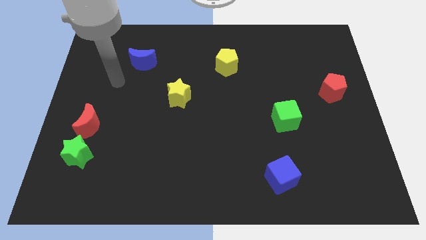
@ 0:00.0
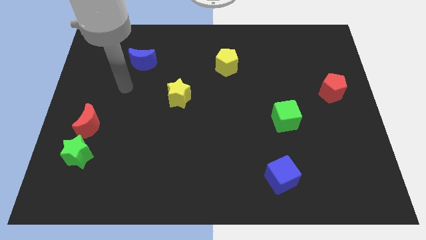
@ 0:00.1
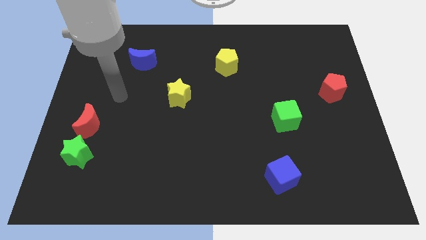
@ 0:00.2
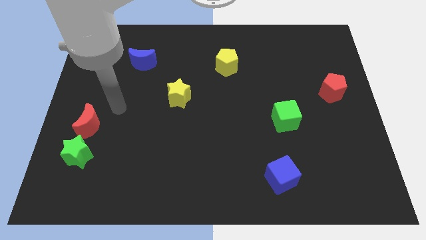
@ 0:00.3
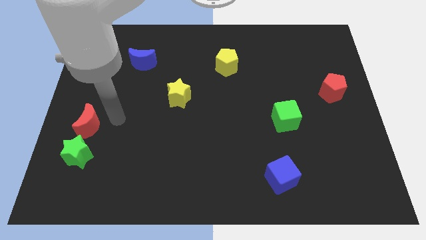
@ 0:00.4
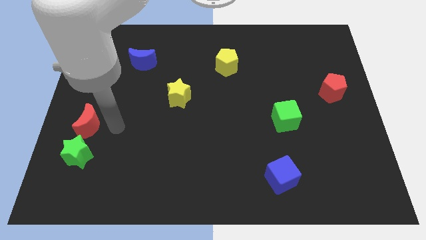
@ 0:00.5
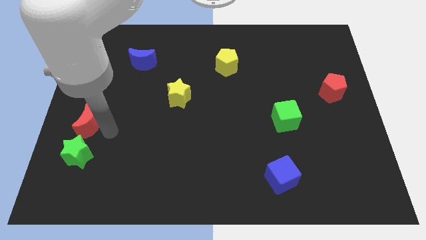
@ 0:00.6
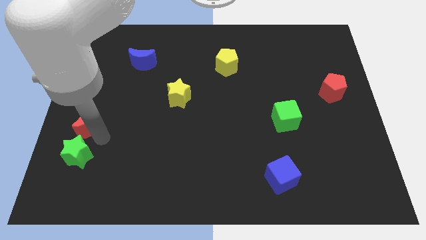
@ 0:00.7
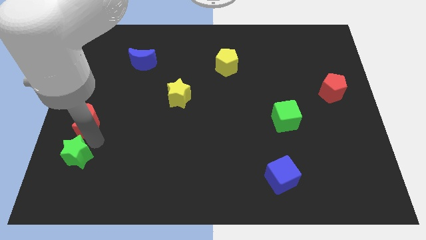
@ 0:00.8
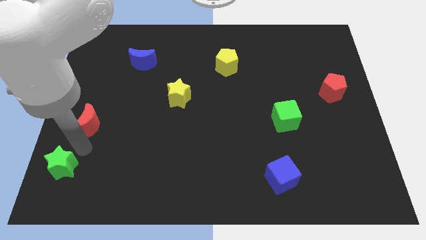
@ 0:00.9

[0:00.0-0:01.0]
separate the red moon from the green star

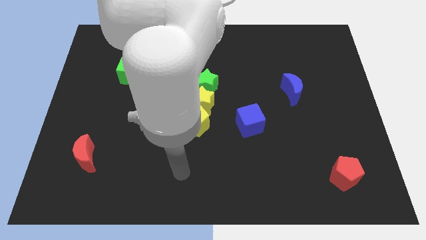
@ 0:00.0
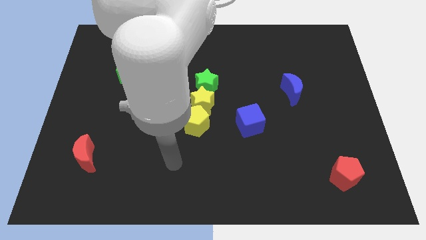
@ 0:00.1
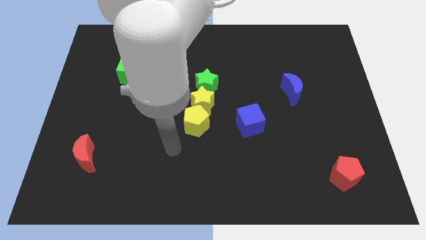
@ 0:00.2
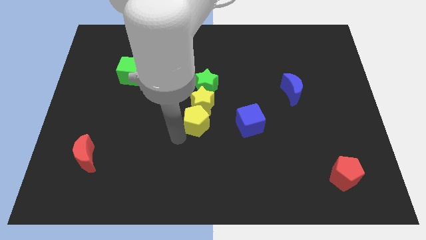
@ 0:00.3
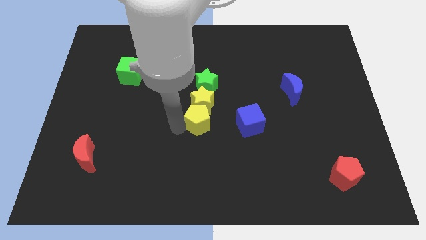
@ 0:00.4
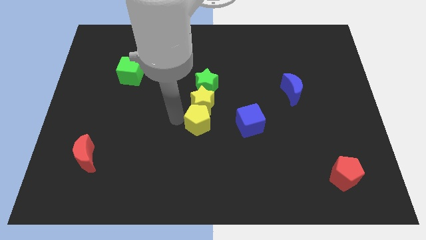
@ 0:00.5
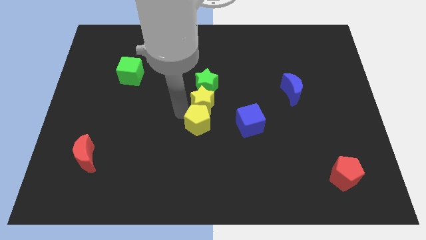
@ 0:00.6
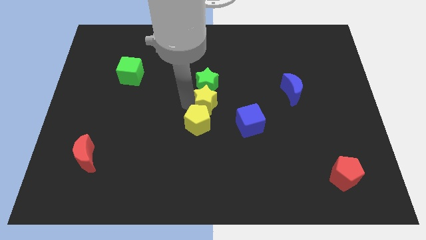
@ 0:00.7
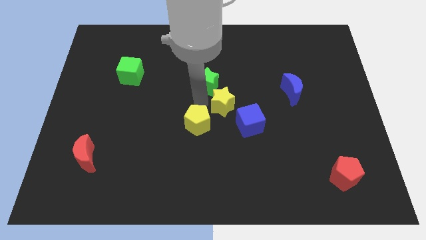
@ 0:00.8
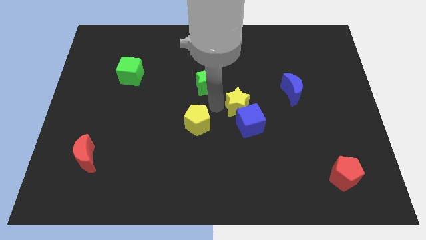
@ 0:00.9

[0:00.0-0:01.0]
separate the yellow pentagon from the yellow star

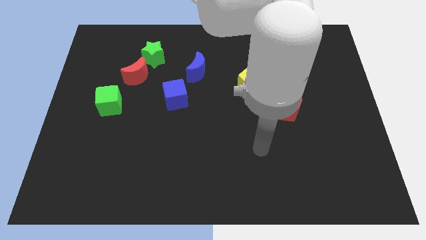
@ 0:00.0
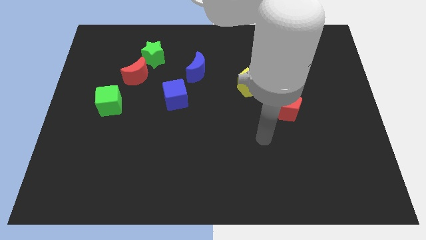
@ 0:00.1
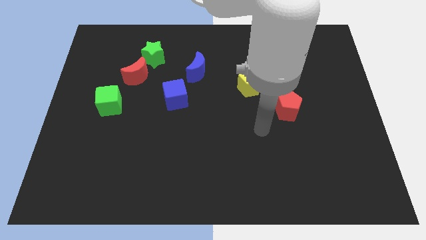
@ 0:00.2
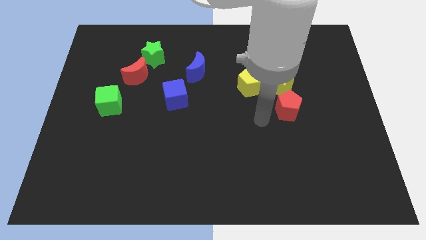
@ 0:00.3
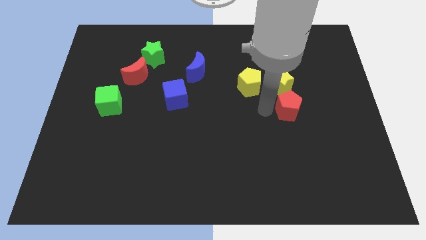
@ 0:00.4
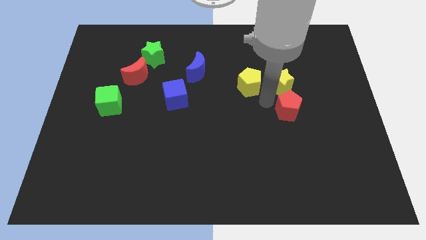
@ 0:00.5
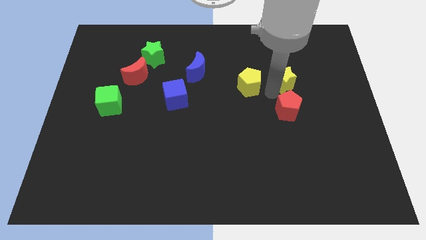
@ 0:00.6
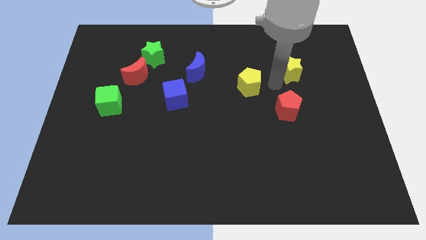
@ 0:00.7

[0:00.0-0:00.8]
move the yellow pentagon away from the yellow star

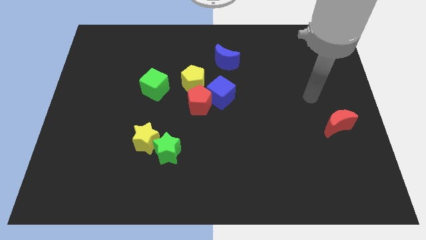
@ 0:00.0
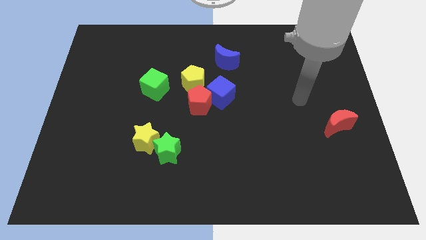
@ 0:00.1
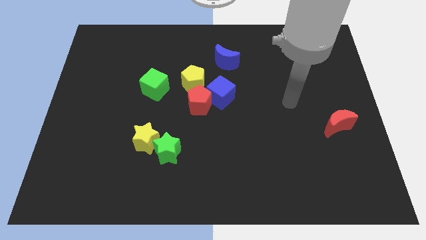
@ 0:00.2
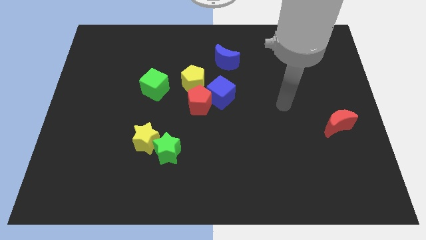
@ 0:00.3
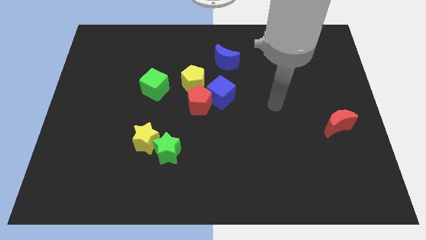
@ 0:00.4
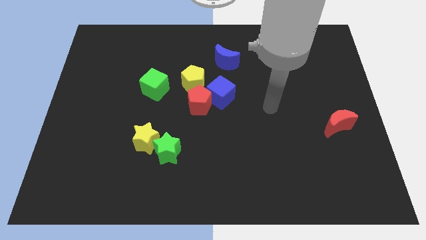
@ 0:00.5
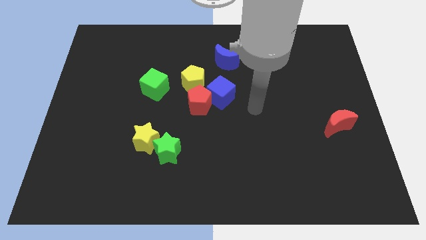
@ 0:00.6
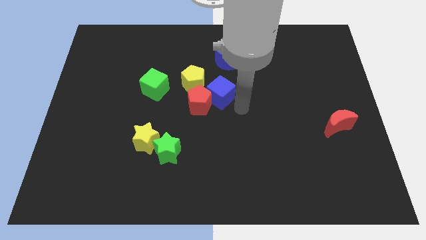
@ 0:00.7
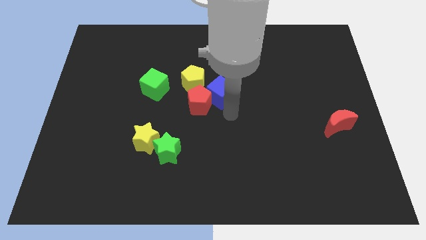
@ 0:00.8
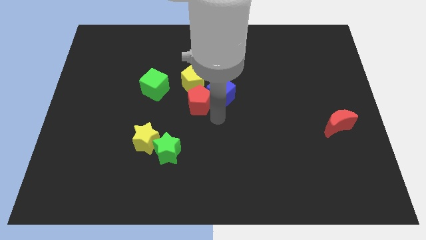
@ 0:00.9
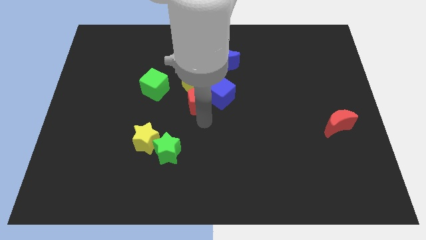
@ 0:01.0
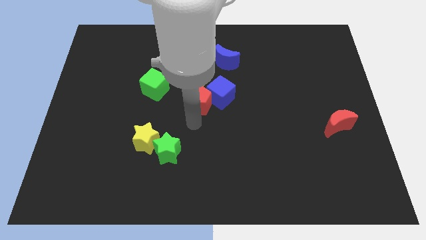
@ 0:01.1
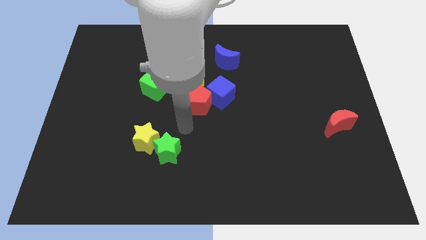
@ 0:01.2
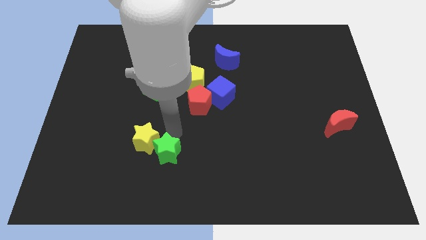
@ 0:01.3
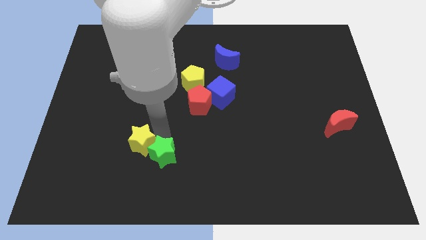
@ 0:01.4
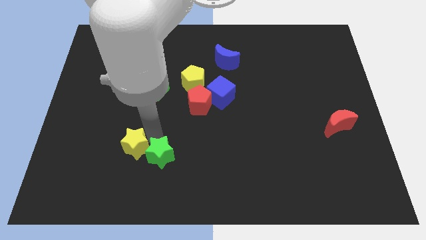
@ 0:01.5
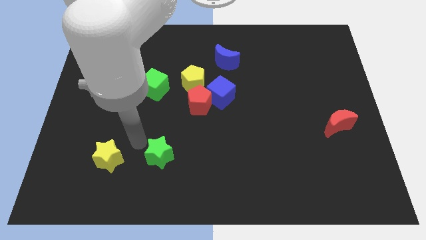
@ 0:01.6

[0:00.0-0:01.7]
pull the green star apart from the yellow star

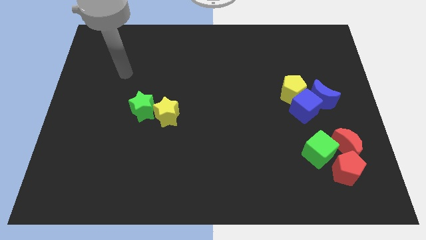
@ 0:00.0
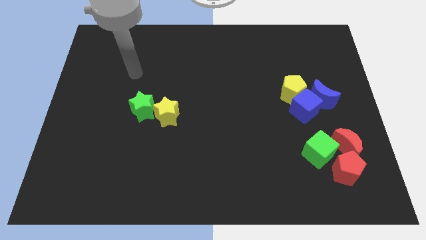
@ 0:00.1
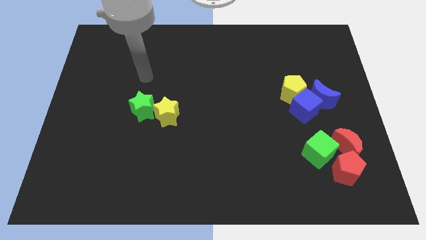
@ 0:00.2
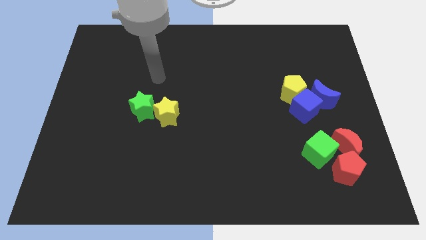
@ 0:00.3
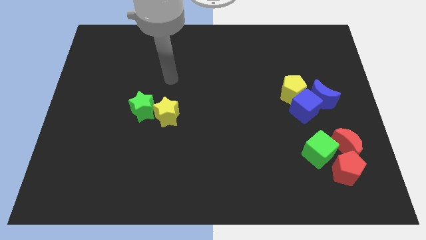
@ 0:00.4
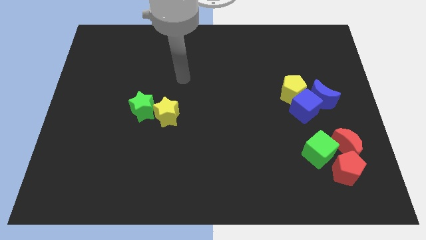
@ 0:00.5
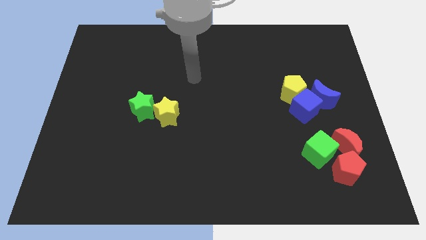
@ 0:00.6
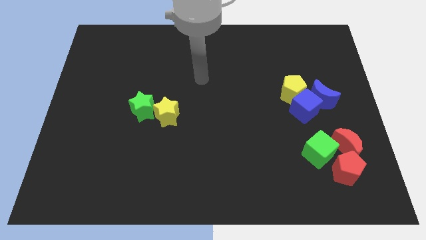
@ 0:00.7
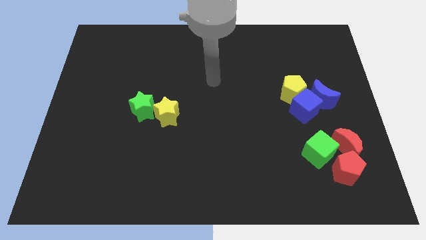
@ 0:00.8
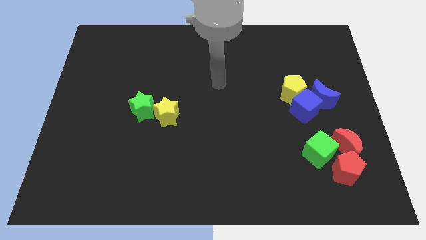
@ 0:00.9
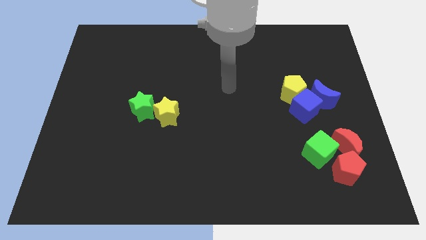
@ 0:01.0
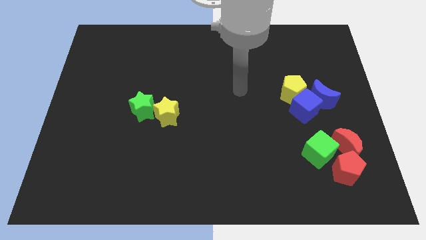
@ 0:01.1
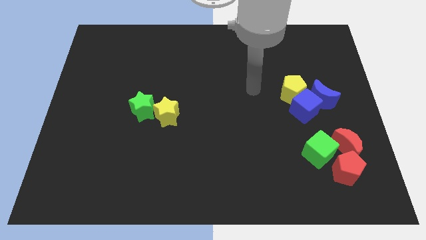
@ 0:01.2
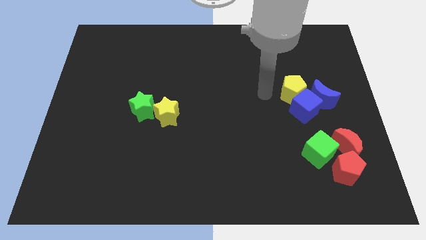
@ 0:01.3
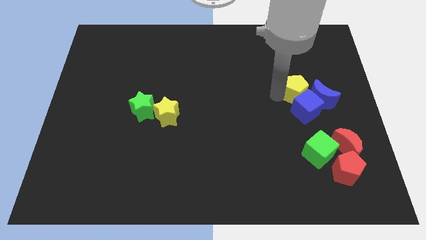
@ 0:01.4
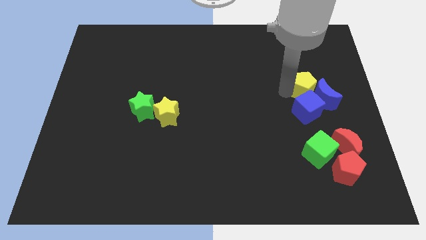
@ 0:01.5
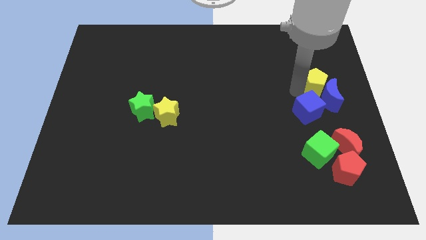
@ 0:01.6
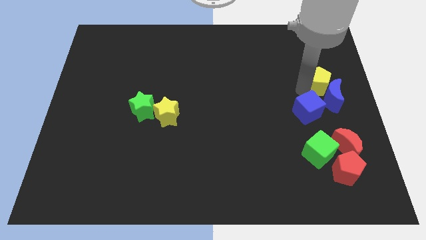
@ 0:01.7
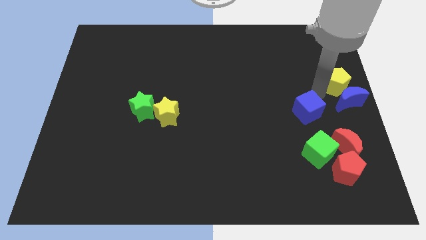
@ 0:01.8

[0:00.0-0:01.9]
separate the blue cube from the blue moon and yellow pentagon

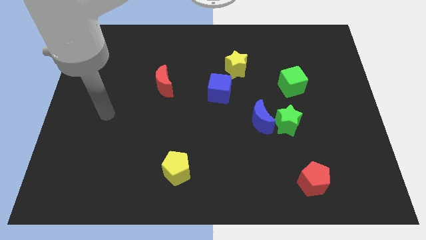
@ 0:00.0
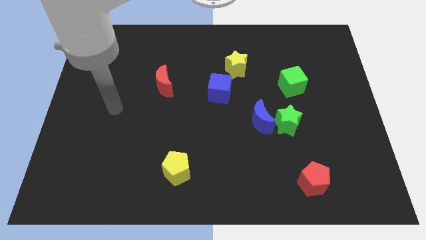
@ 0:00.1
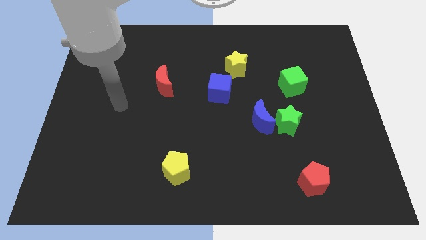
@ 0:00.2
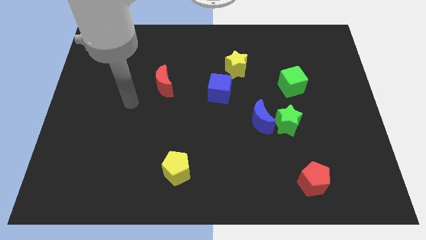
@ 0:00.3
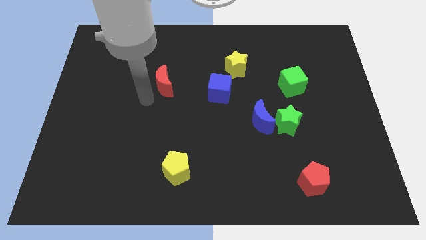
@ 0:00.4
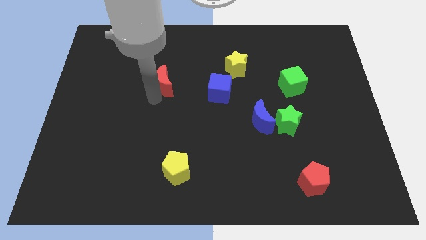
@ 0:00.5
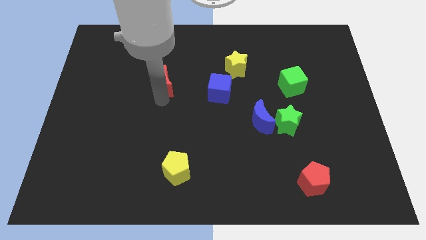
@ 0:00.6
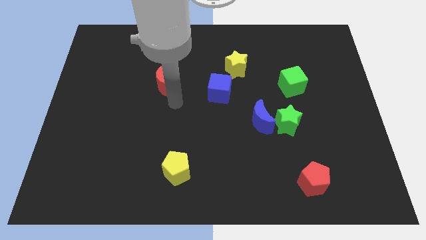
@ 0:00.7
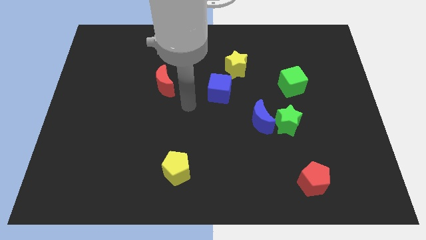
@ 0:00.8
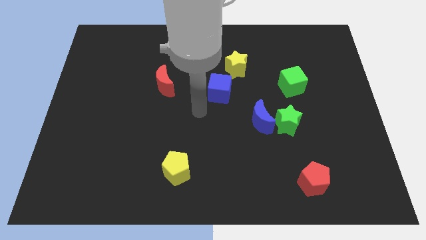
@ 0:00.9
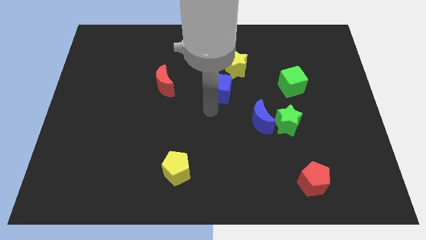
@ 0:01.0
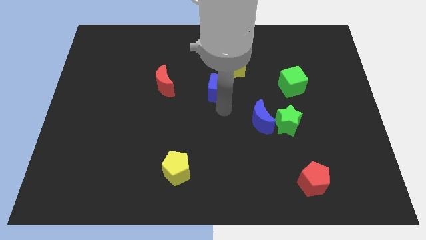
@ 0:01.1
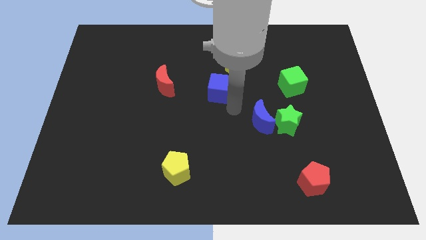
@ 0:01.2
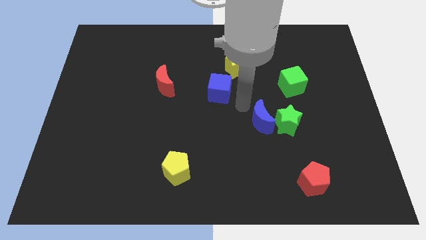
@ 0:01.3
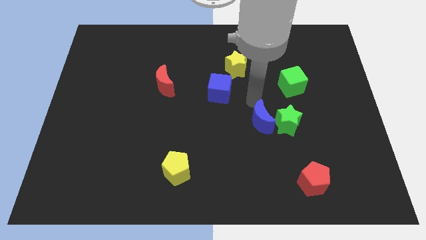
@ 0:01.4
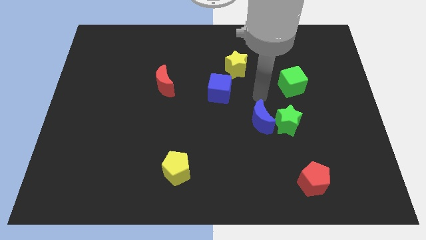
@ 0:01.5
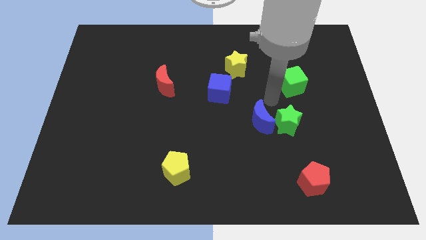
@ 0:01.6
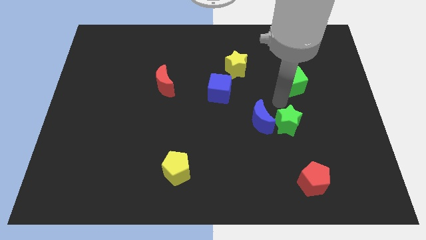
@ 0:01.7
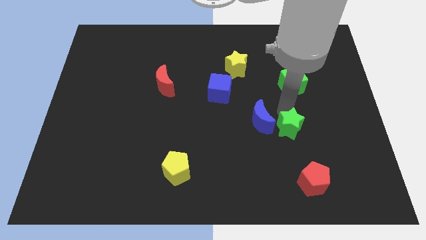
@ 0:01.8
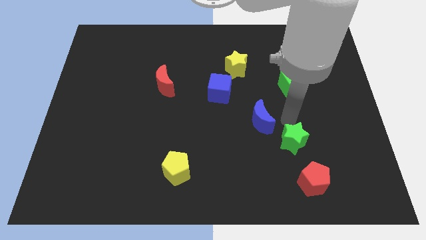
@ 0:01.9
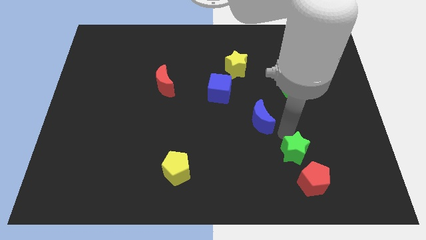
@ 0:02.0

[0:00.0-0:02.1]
pull the blue moon apart from the green star

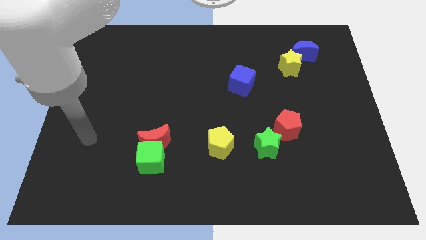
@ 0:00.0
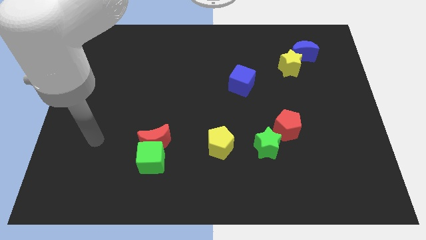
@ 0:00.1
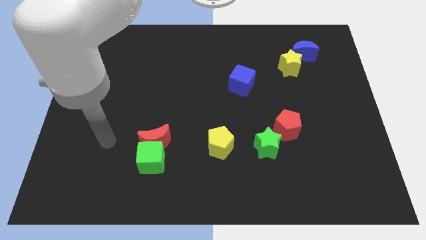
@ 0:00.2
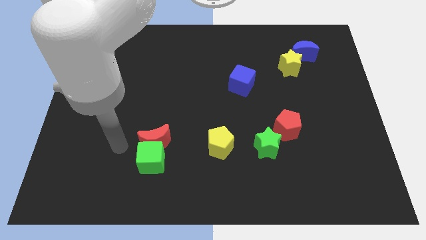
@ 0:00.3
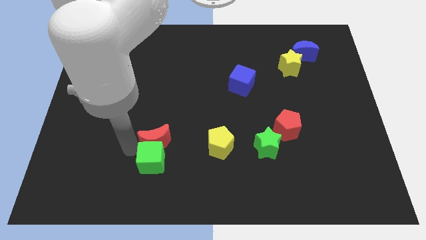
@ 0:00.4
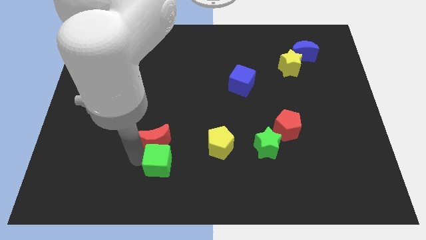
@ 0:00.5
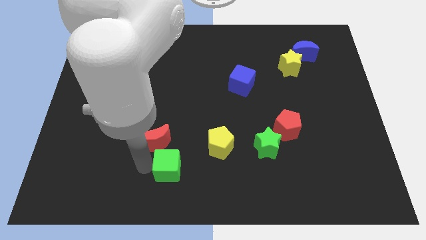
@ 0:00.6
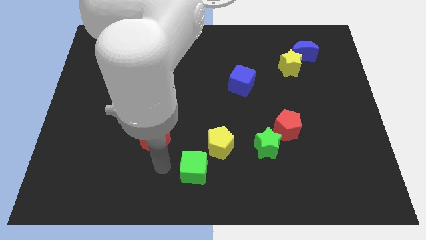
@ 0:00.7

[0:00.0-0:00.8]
separate the red moon from the green cube
